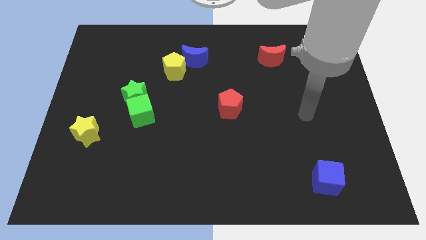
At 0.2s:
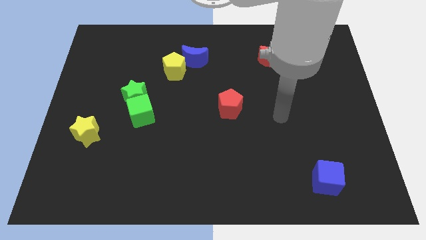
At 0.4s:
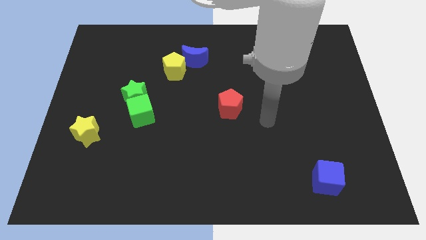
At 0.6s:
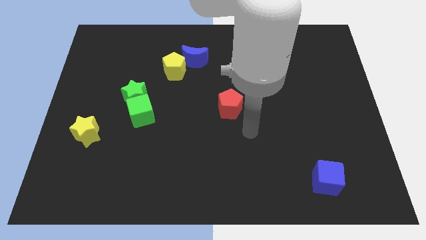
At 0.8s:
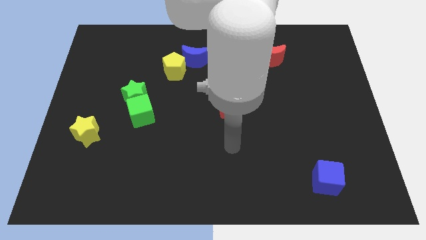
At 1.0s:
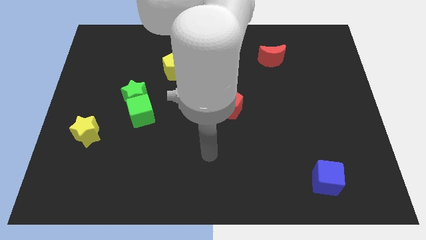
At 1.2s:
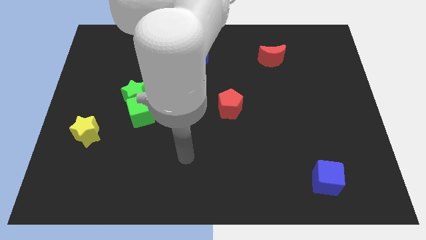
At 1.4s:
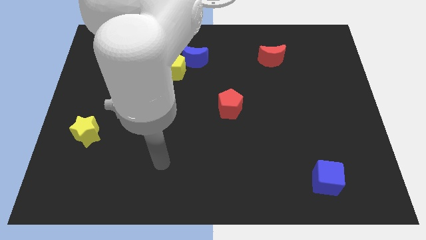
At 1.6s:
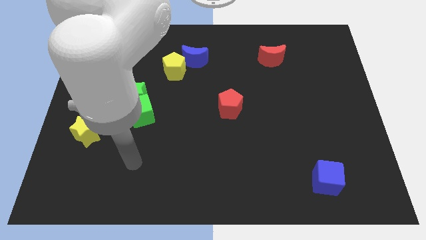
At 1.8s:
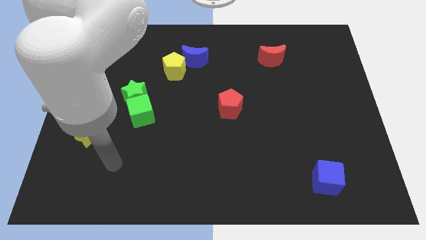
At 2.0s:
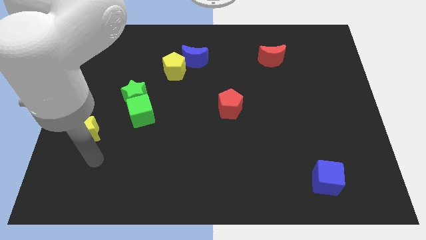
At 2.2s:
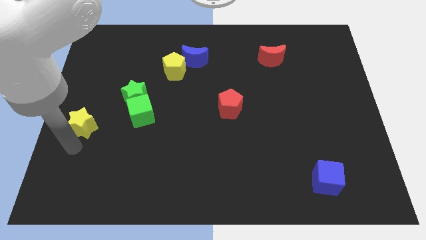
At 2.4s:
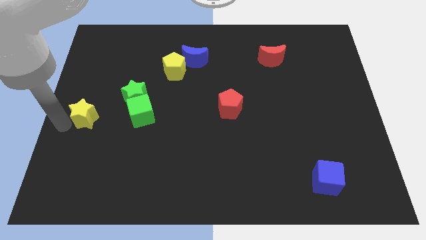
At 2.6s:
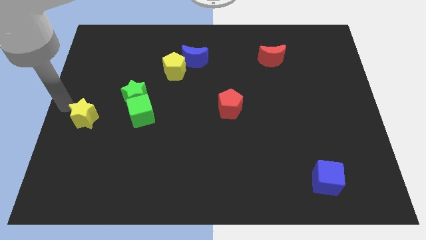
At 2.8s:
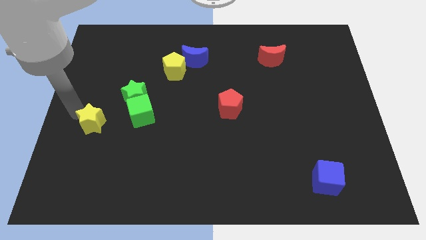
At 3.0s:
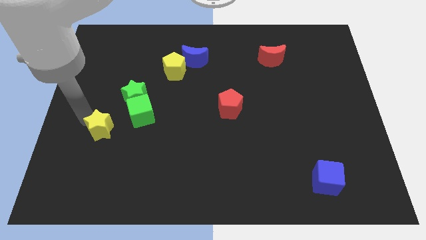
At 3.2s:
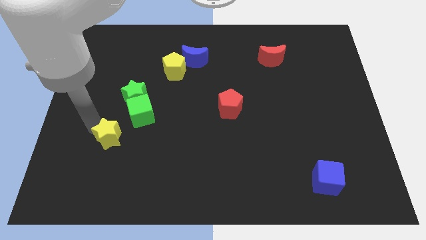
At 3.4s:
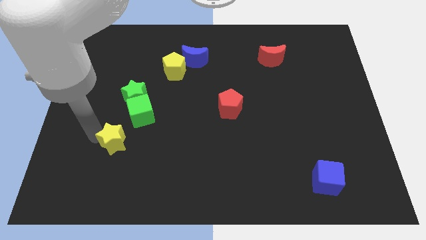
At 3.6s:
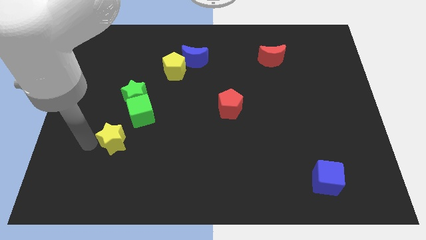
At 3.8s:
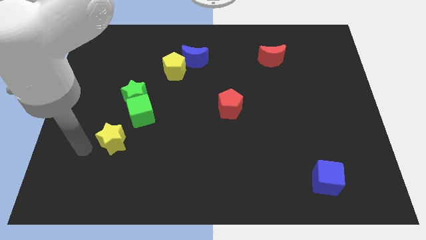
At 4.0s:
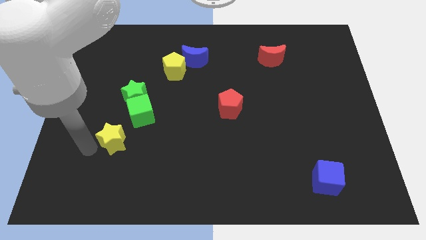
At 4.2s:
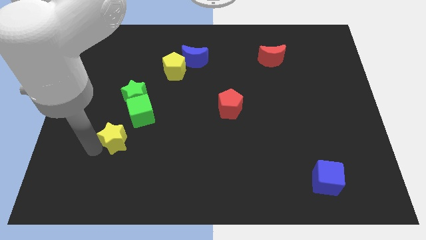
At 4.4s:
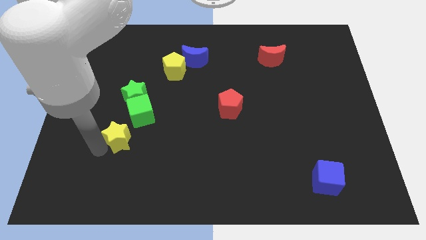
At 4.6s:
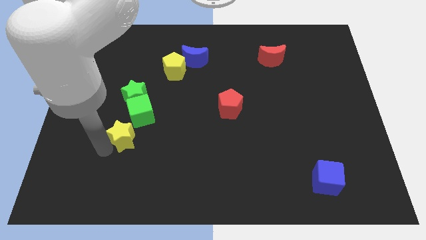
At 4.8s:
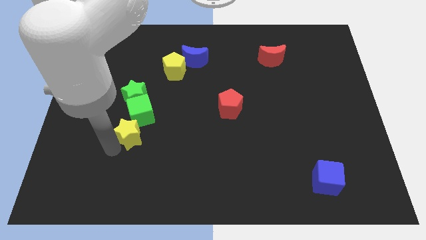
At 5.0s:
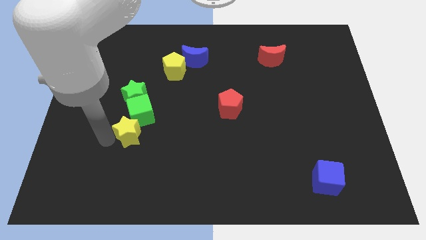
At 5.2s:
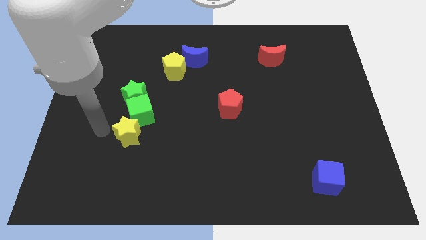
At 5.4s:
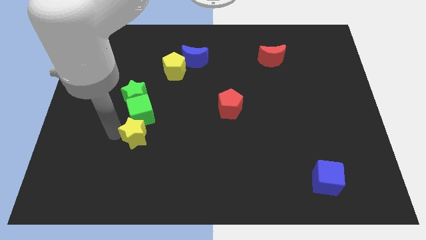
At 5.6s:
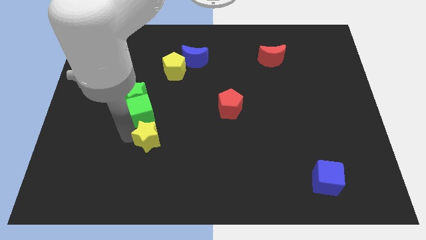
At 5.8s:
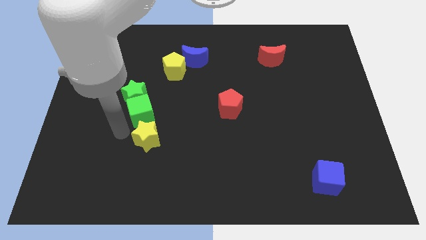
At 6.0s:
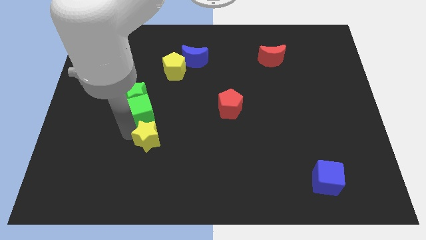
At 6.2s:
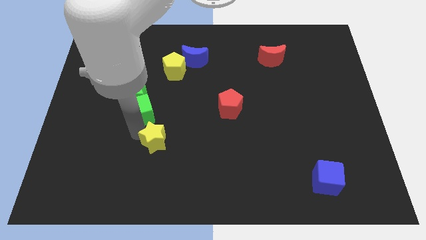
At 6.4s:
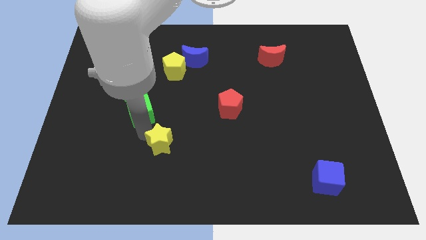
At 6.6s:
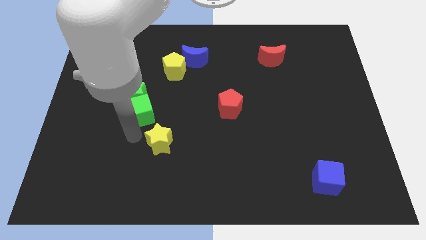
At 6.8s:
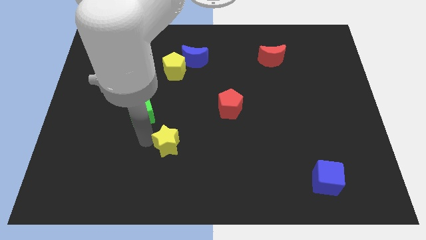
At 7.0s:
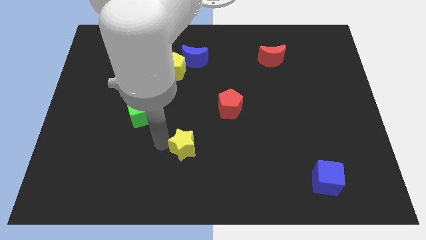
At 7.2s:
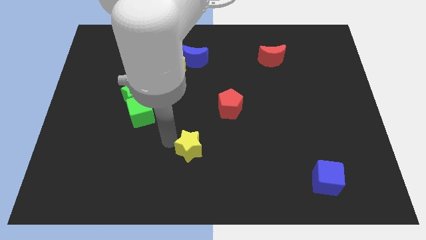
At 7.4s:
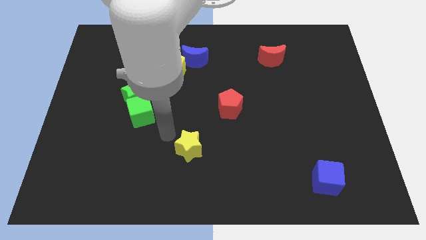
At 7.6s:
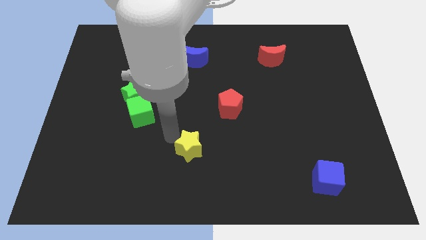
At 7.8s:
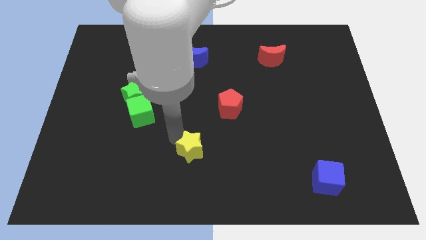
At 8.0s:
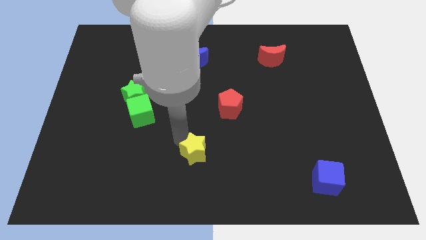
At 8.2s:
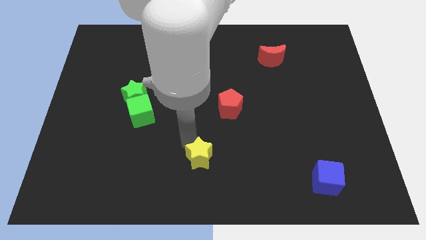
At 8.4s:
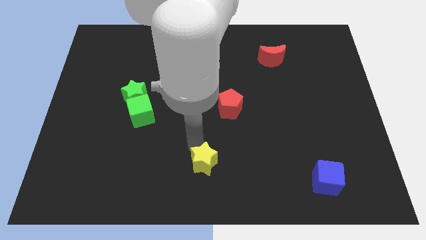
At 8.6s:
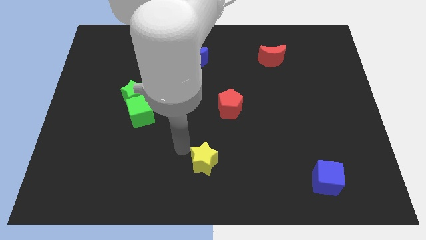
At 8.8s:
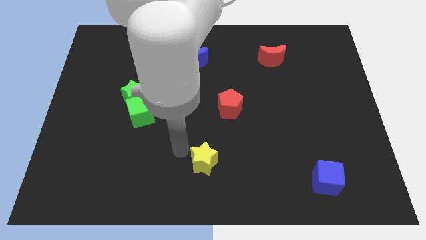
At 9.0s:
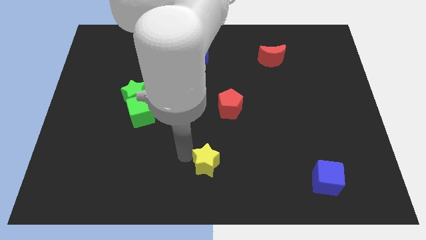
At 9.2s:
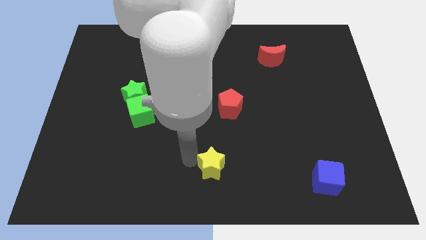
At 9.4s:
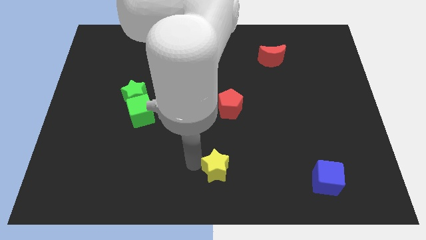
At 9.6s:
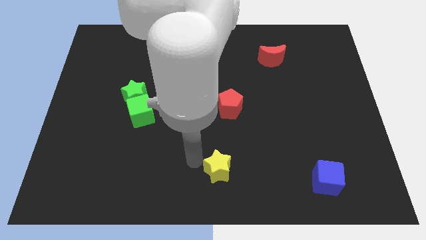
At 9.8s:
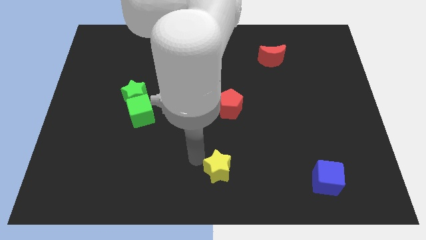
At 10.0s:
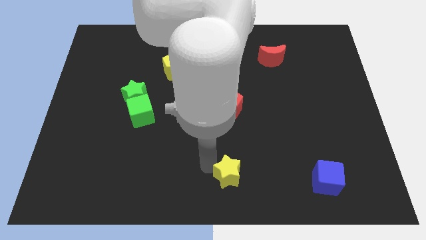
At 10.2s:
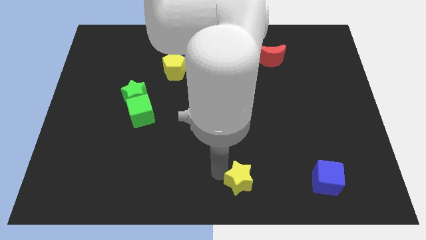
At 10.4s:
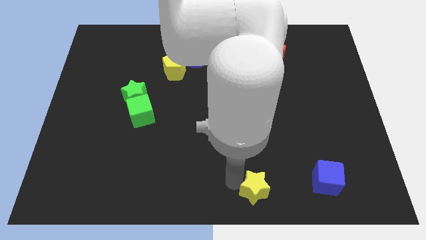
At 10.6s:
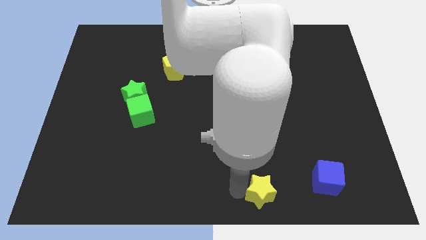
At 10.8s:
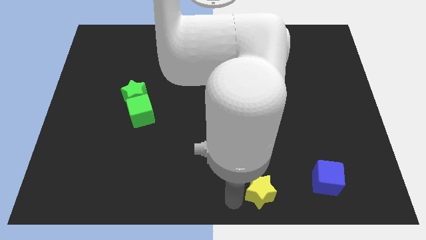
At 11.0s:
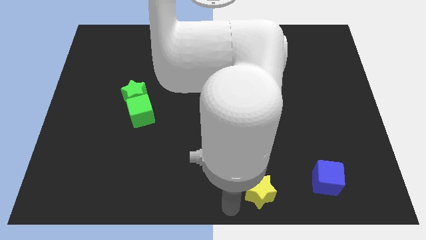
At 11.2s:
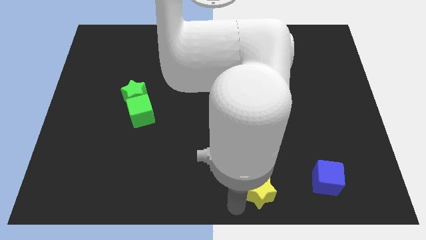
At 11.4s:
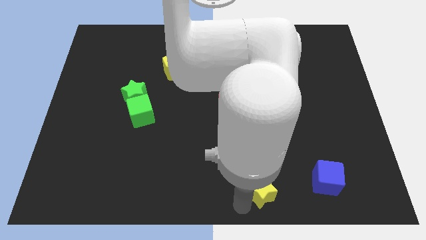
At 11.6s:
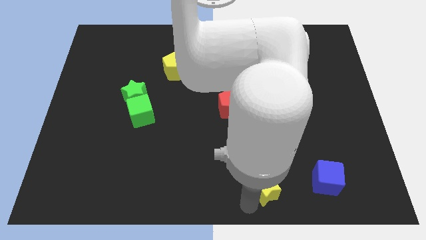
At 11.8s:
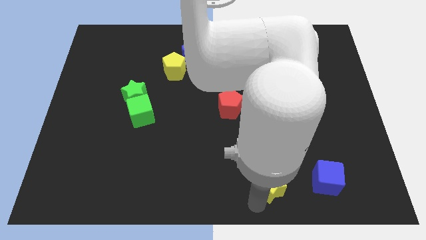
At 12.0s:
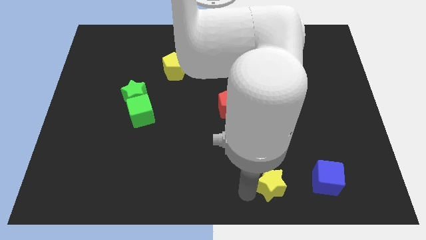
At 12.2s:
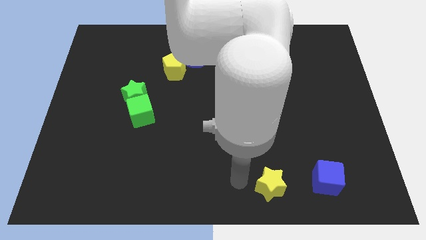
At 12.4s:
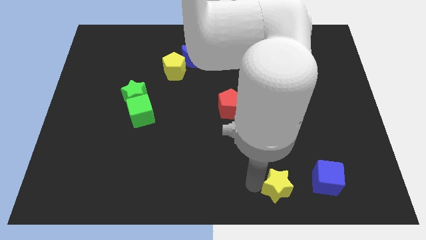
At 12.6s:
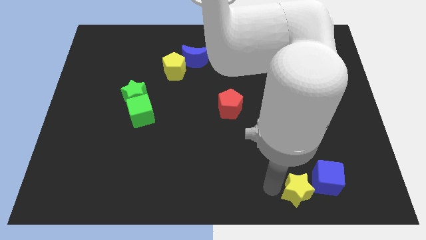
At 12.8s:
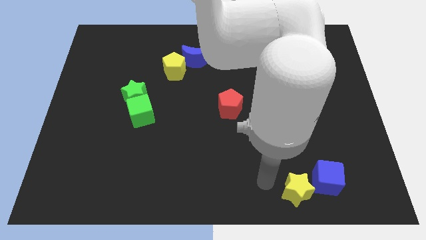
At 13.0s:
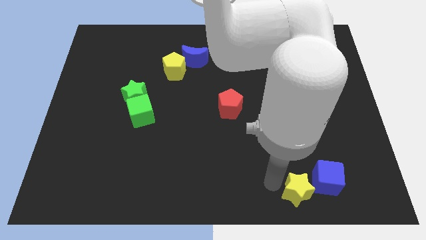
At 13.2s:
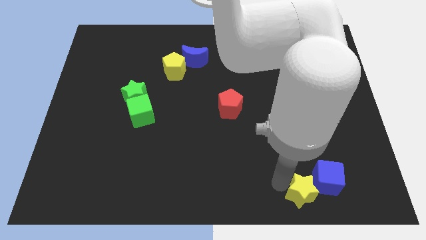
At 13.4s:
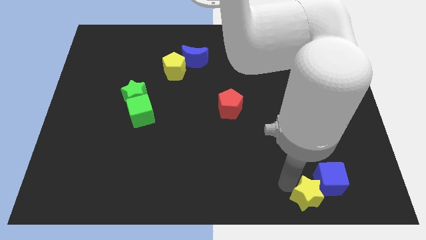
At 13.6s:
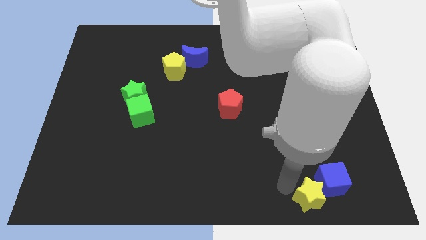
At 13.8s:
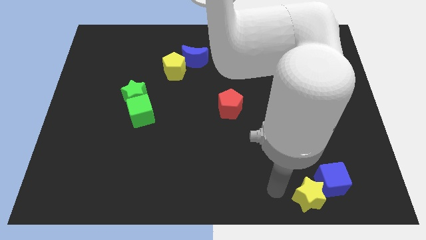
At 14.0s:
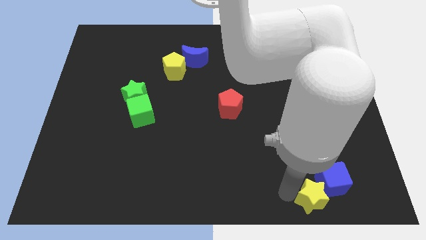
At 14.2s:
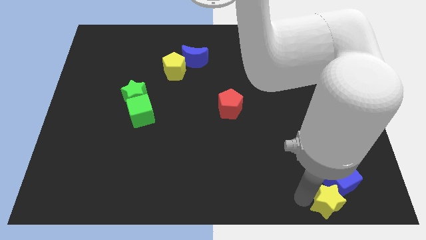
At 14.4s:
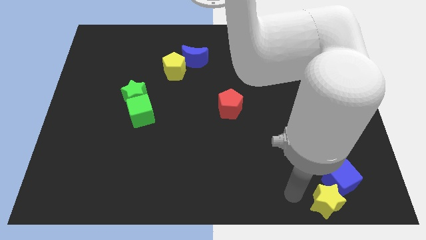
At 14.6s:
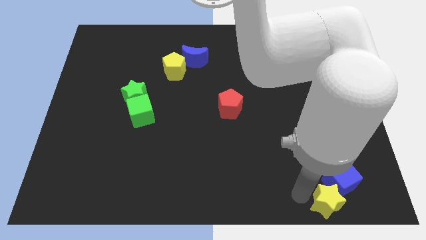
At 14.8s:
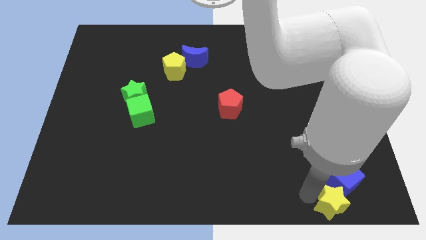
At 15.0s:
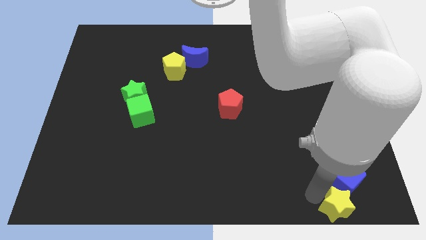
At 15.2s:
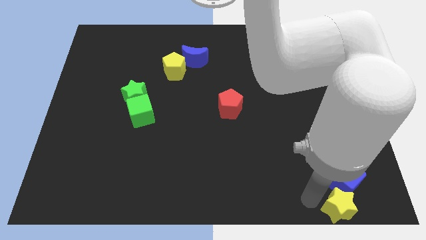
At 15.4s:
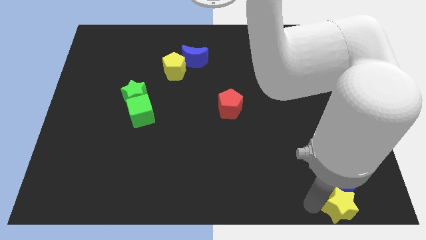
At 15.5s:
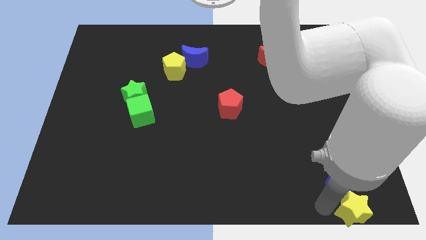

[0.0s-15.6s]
put the yellow star to the bottom right corner
